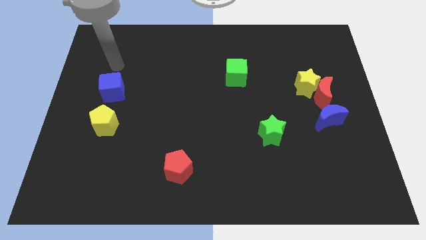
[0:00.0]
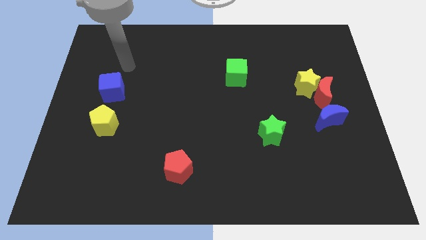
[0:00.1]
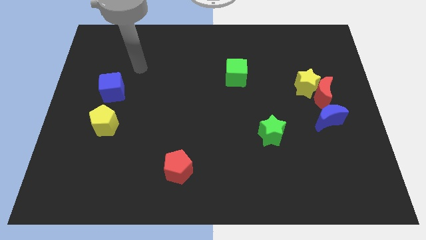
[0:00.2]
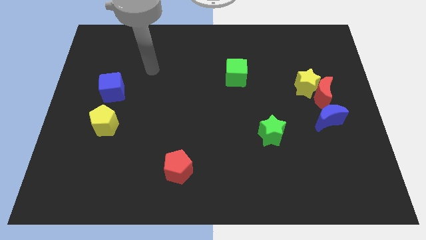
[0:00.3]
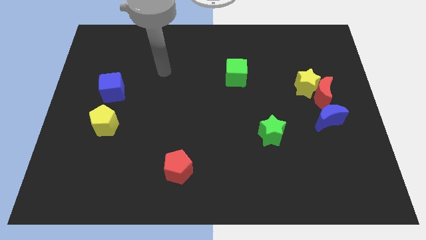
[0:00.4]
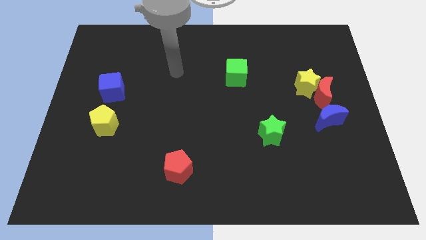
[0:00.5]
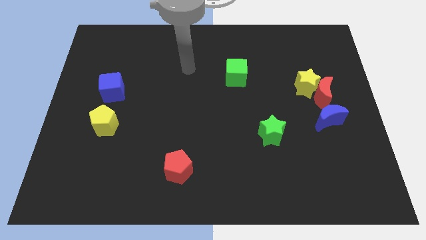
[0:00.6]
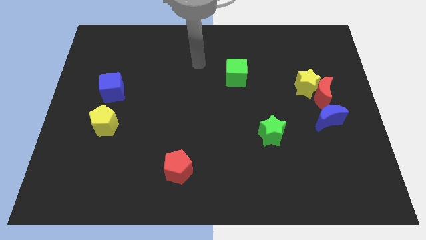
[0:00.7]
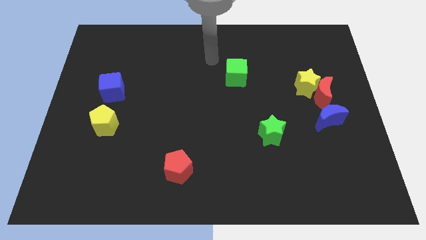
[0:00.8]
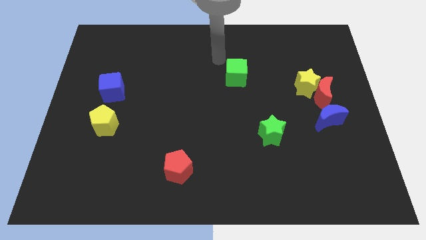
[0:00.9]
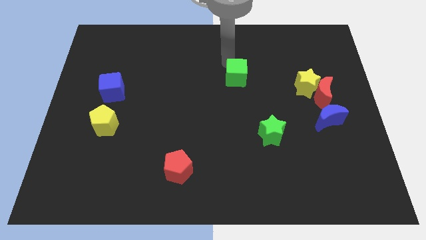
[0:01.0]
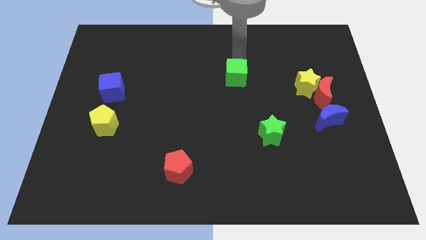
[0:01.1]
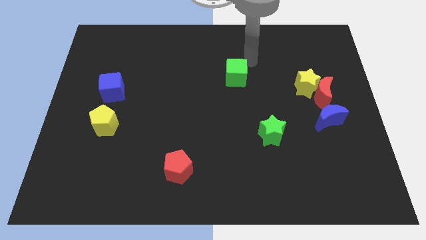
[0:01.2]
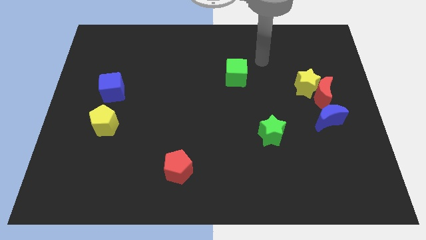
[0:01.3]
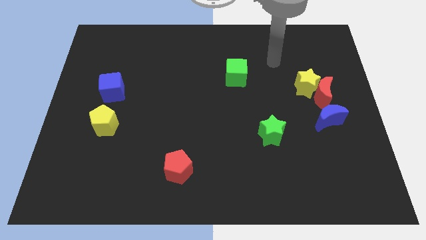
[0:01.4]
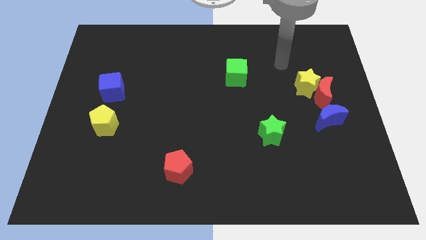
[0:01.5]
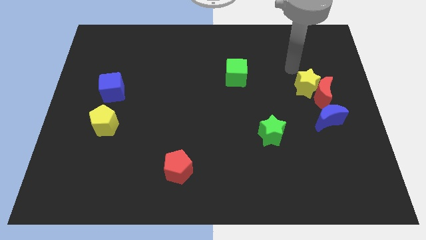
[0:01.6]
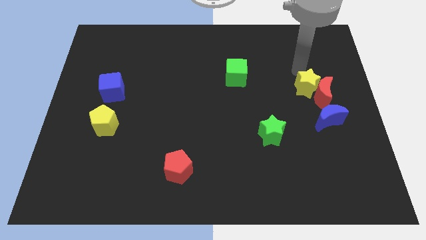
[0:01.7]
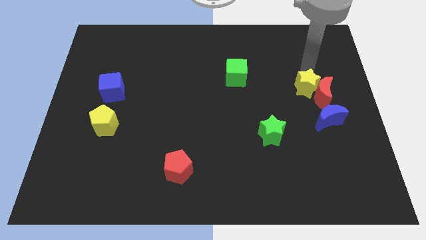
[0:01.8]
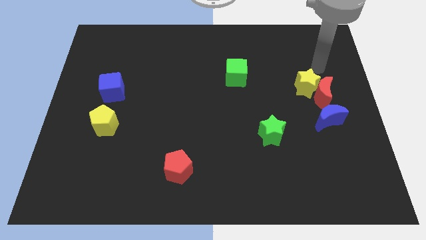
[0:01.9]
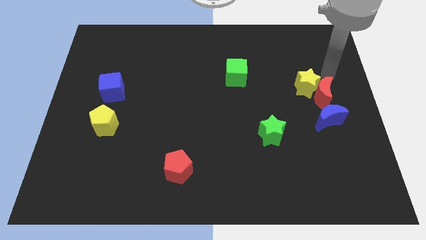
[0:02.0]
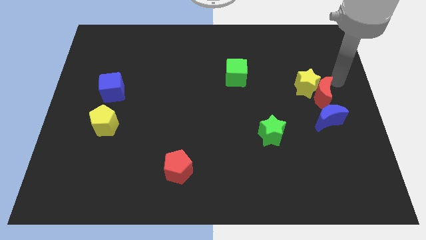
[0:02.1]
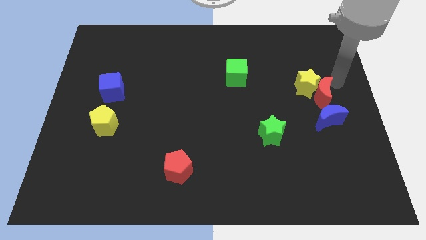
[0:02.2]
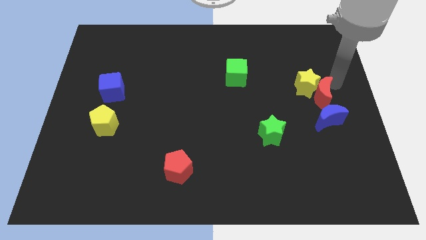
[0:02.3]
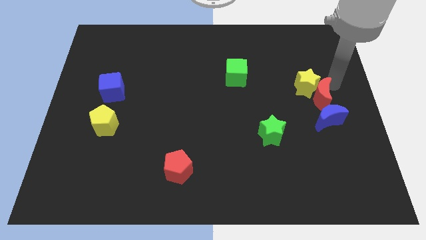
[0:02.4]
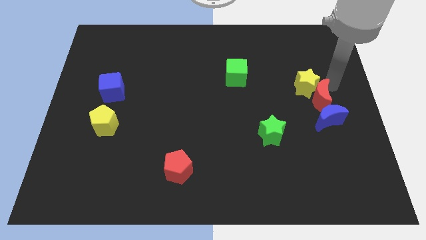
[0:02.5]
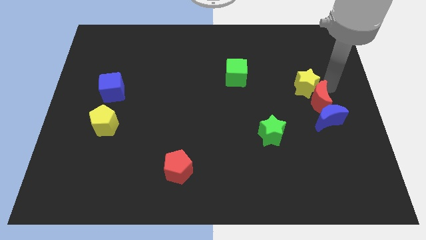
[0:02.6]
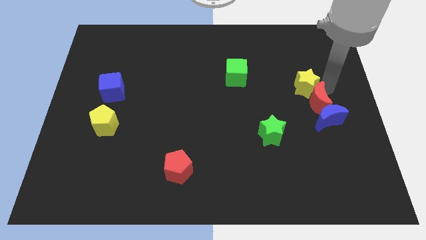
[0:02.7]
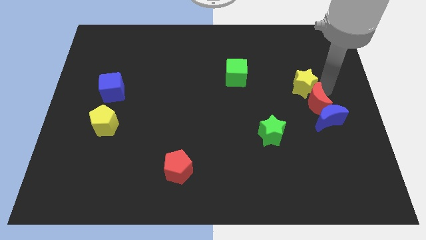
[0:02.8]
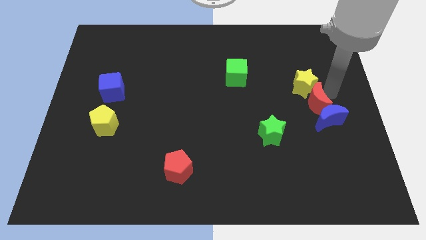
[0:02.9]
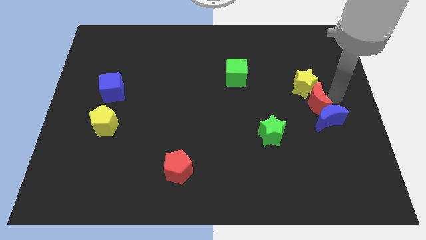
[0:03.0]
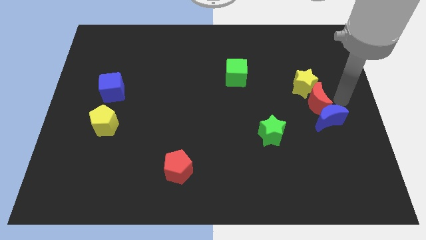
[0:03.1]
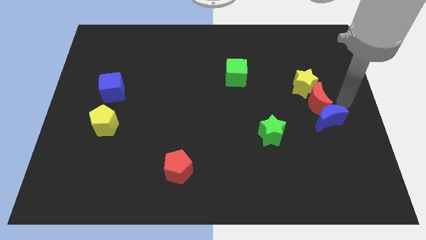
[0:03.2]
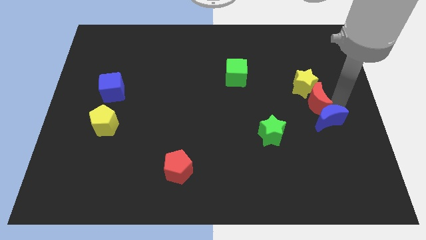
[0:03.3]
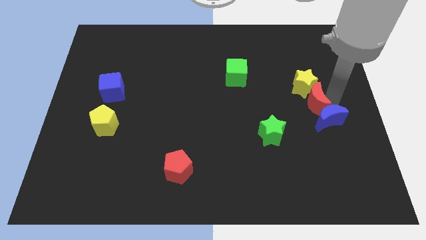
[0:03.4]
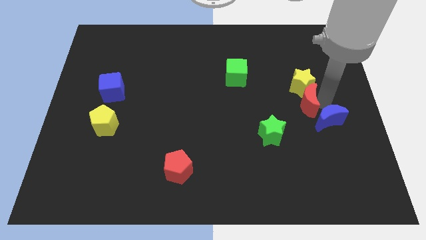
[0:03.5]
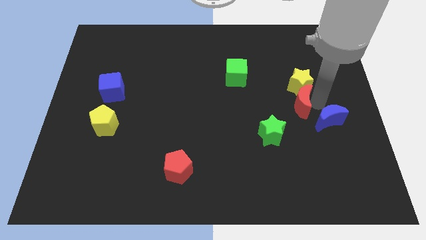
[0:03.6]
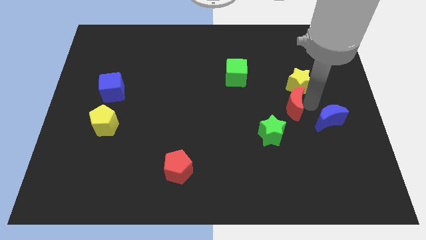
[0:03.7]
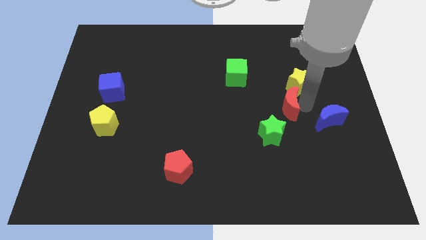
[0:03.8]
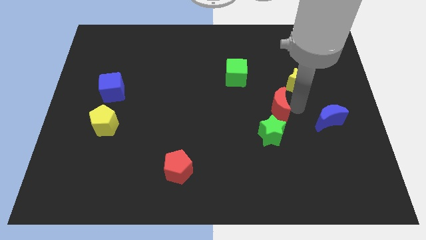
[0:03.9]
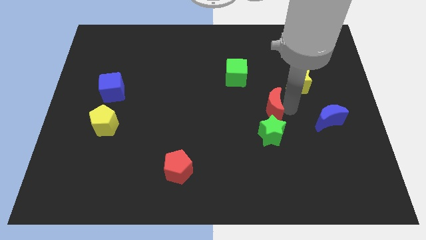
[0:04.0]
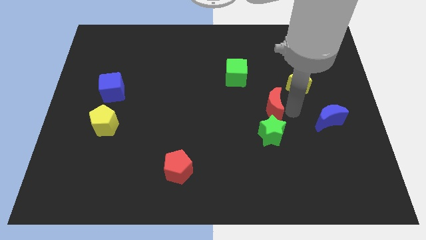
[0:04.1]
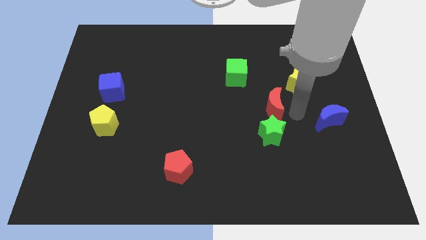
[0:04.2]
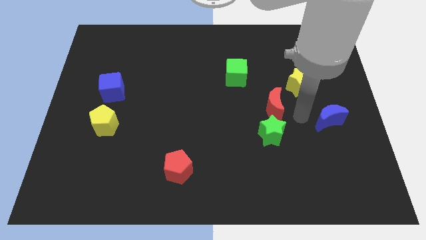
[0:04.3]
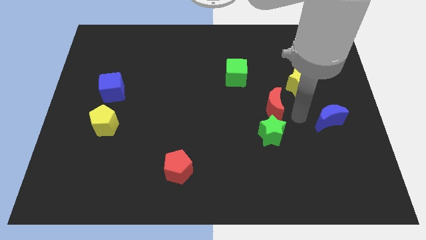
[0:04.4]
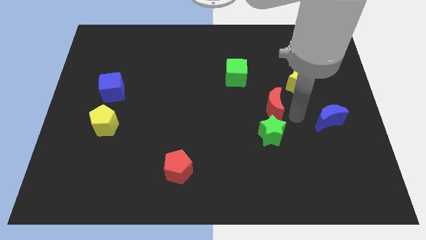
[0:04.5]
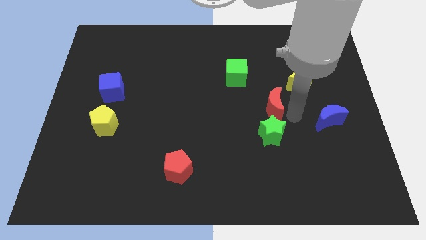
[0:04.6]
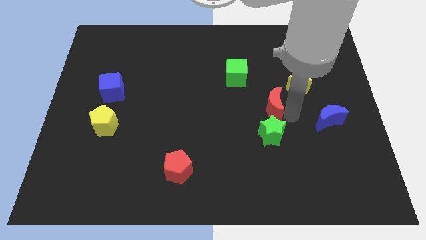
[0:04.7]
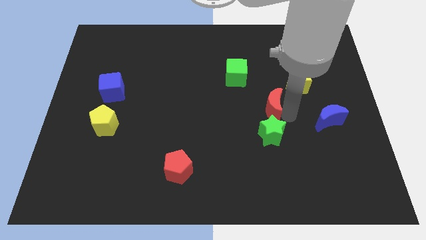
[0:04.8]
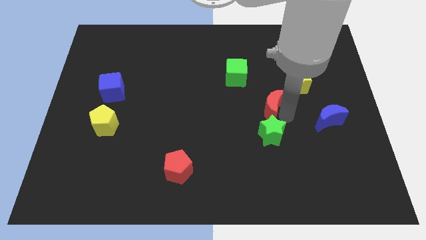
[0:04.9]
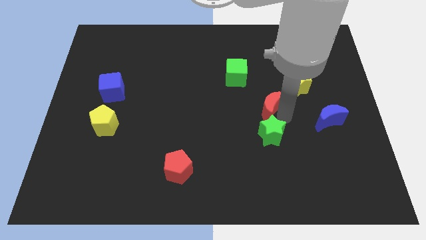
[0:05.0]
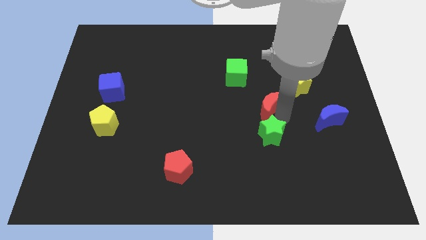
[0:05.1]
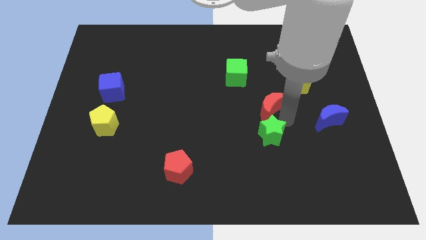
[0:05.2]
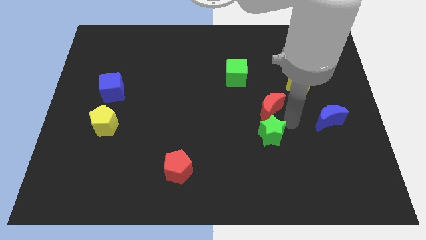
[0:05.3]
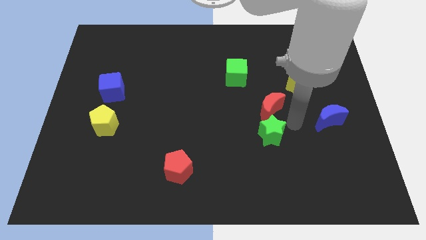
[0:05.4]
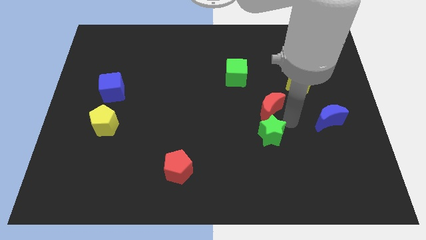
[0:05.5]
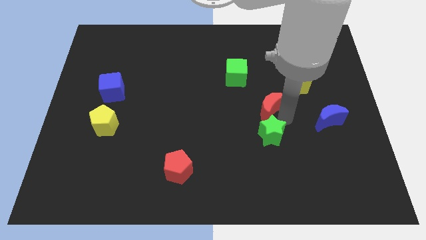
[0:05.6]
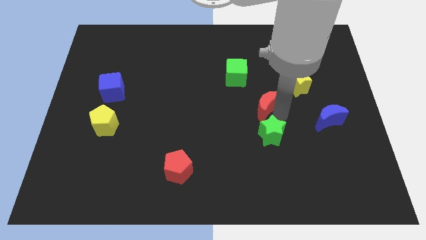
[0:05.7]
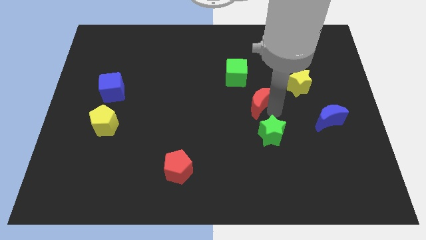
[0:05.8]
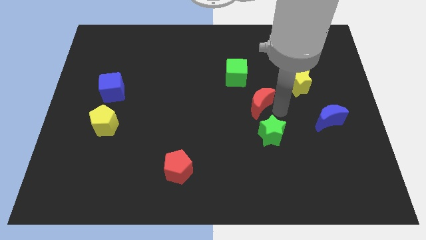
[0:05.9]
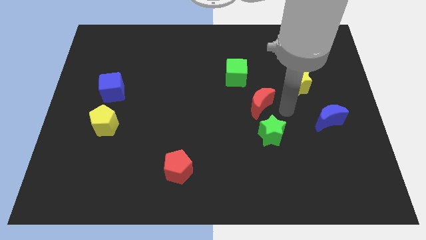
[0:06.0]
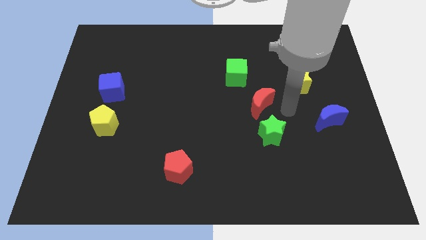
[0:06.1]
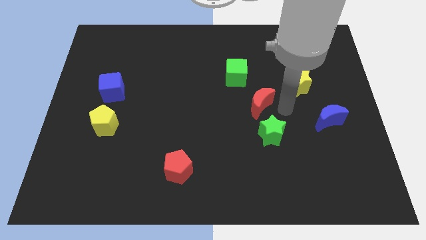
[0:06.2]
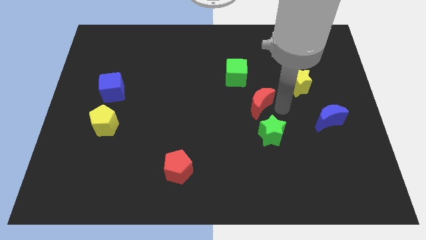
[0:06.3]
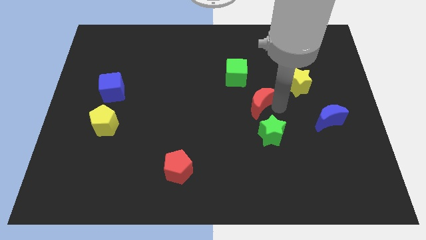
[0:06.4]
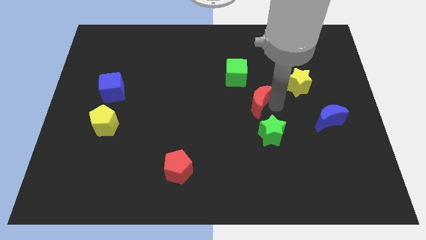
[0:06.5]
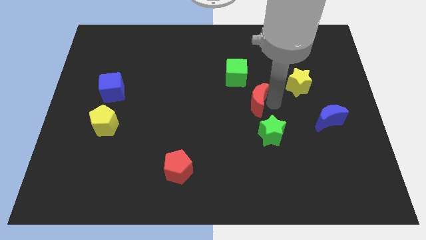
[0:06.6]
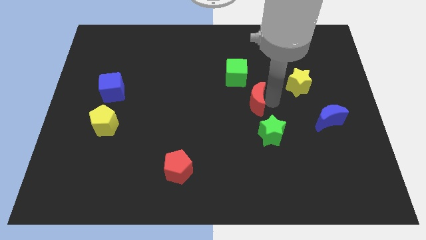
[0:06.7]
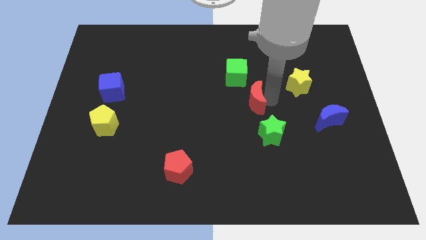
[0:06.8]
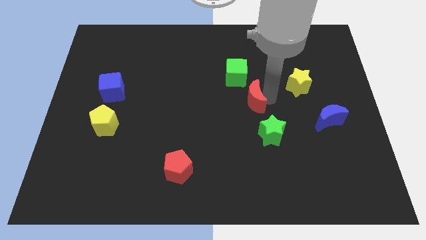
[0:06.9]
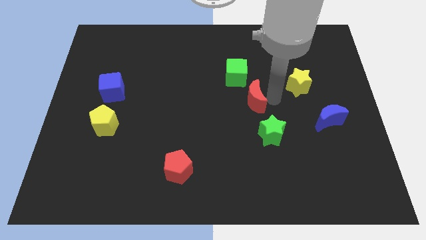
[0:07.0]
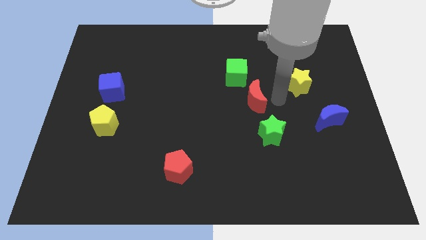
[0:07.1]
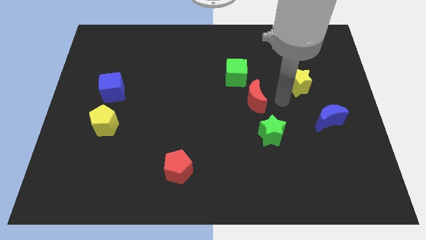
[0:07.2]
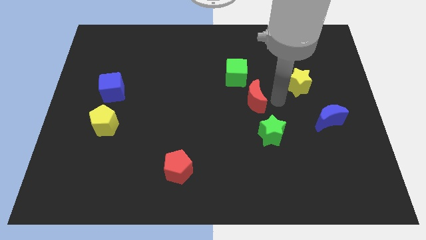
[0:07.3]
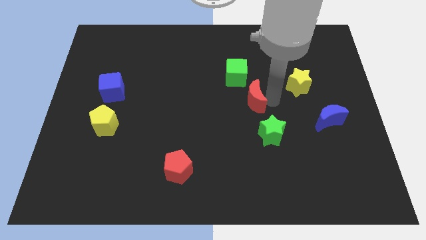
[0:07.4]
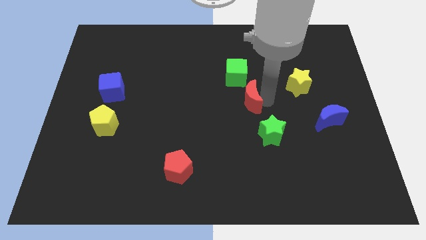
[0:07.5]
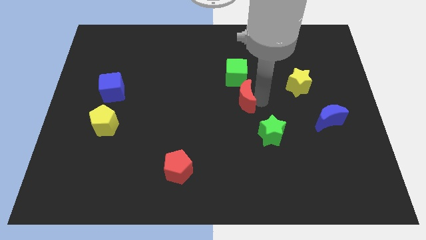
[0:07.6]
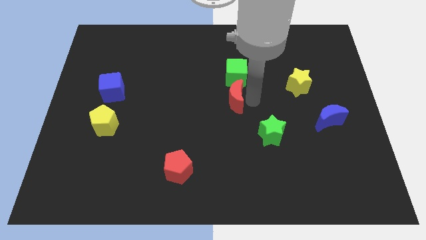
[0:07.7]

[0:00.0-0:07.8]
push the red moon to the left

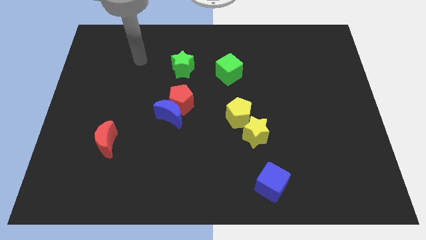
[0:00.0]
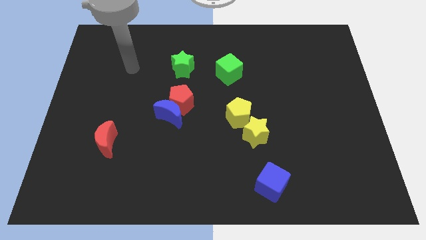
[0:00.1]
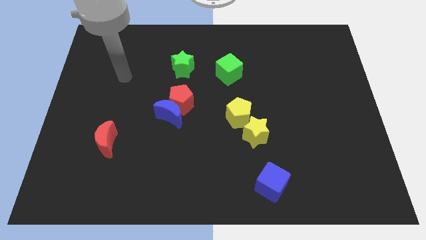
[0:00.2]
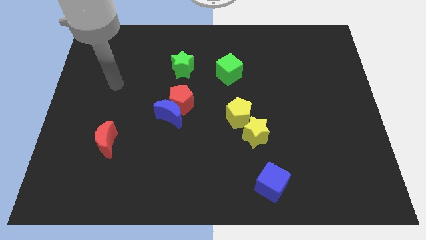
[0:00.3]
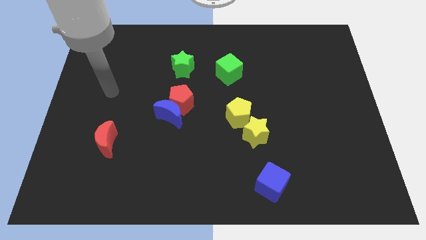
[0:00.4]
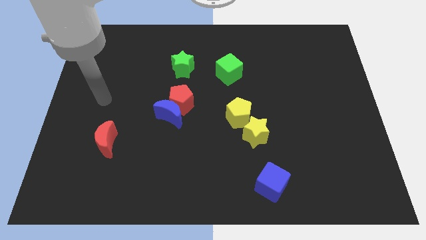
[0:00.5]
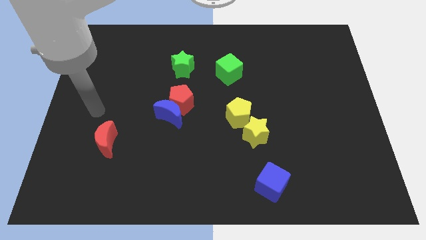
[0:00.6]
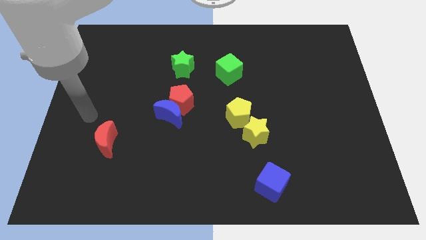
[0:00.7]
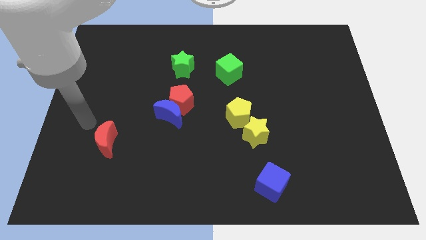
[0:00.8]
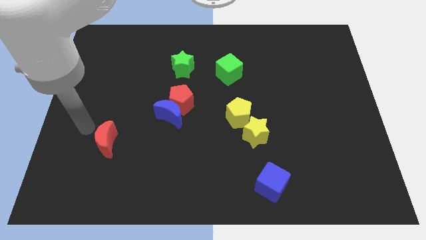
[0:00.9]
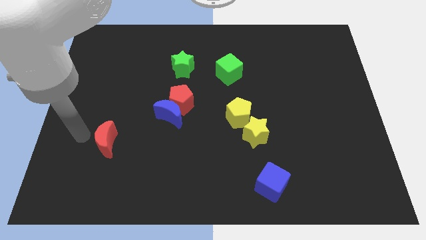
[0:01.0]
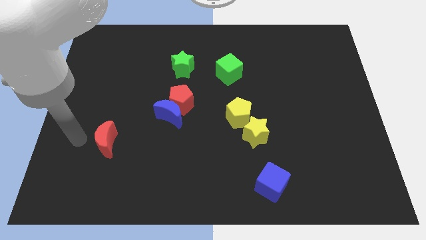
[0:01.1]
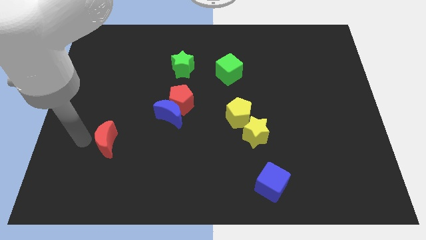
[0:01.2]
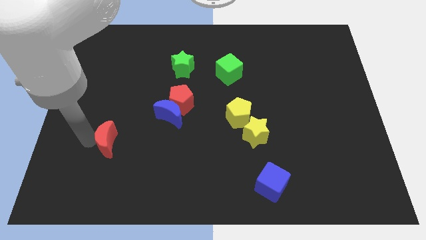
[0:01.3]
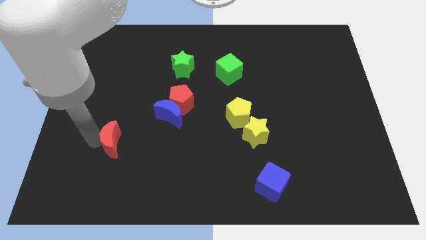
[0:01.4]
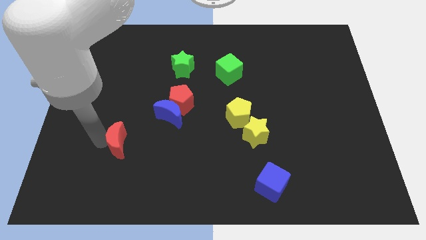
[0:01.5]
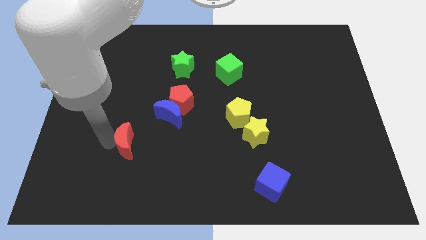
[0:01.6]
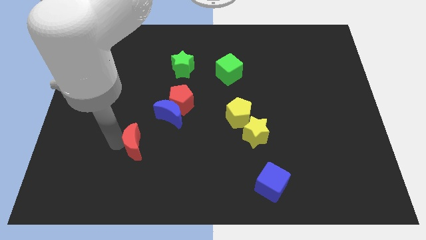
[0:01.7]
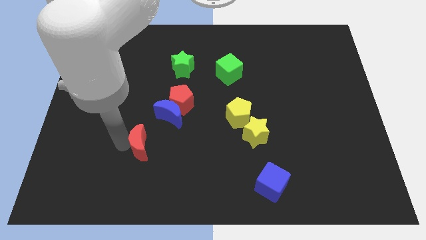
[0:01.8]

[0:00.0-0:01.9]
slightly push the red moon right
